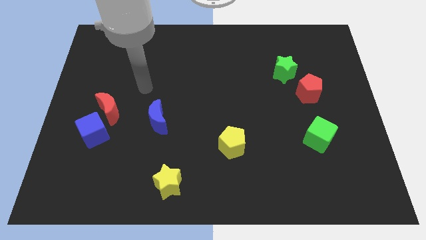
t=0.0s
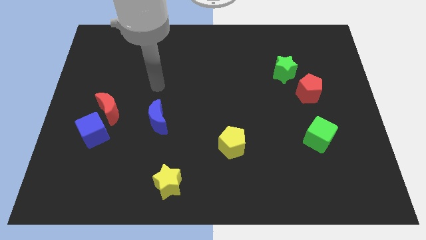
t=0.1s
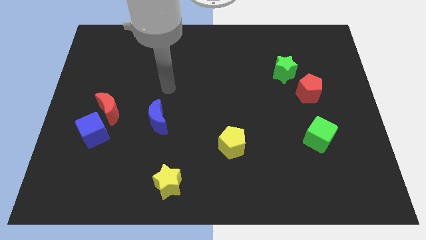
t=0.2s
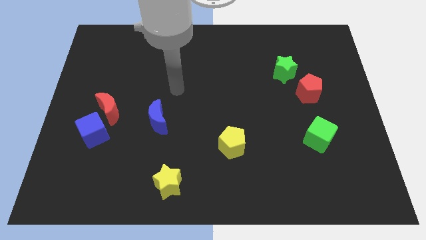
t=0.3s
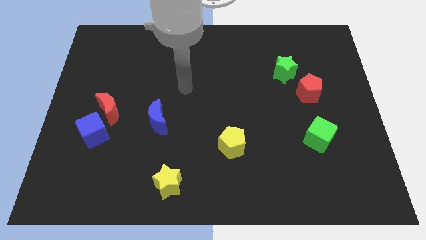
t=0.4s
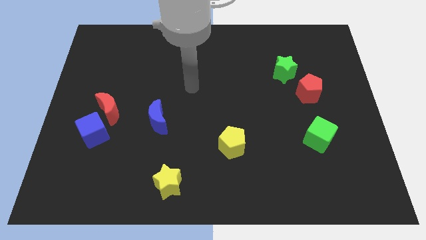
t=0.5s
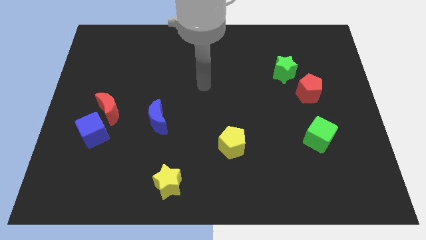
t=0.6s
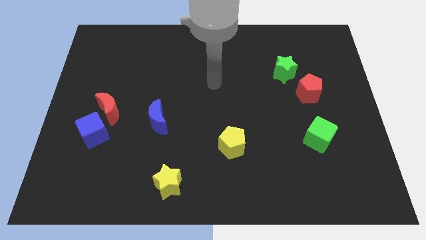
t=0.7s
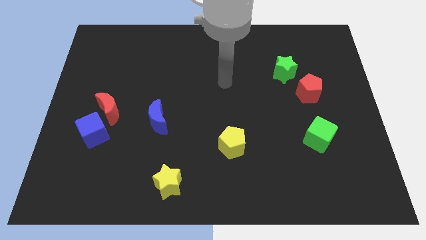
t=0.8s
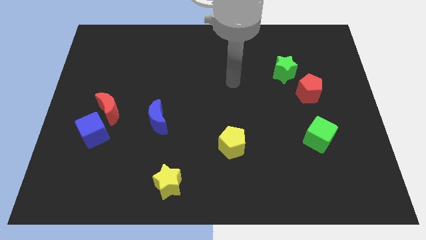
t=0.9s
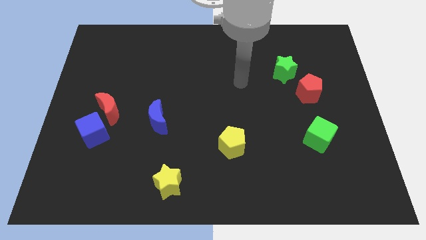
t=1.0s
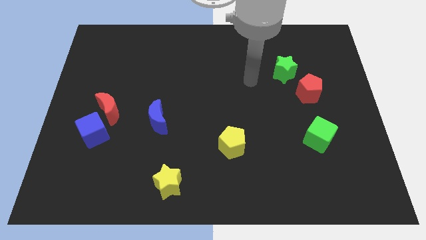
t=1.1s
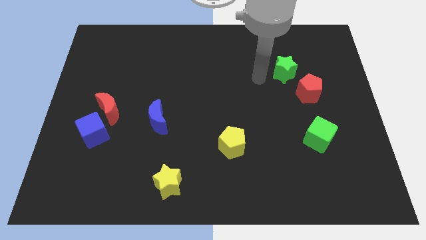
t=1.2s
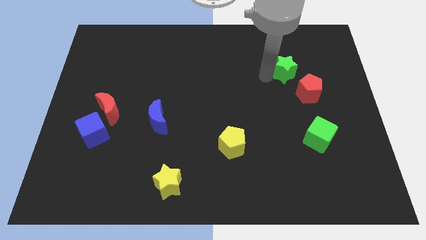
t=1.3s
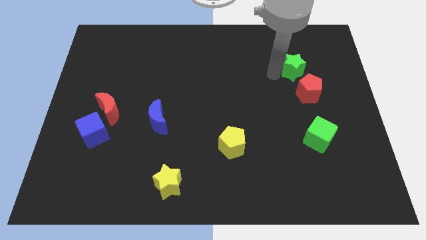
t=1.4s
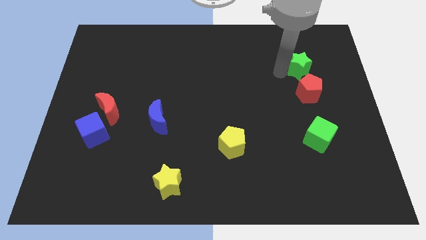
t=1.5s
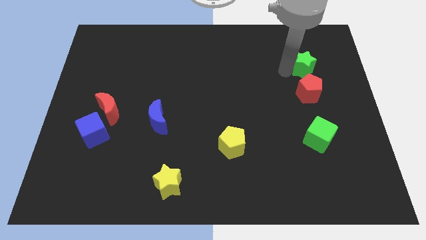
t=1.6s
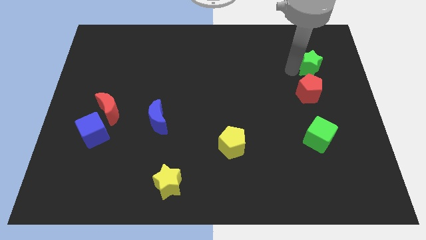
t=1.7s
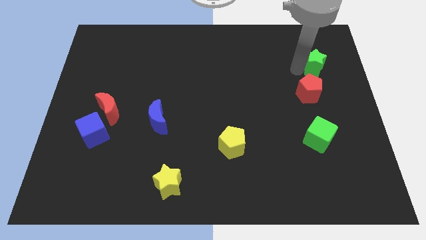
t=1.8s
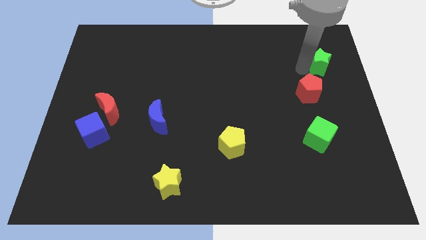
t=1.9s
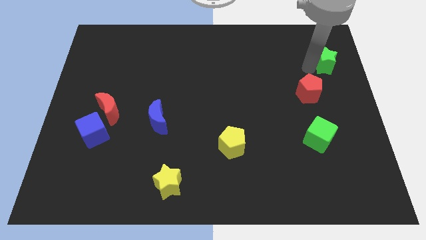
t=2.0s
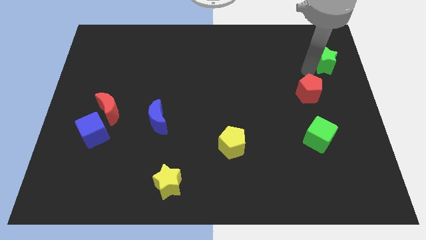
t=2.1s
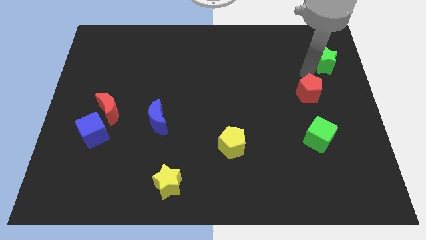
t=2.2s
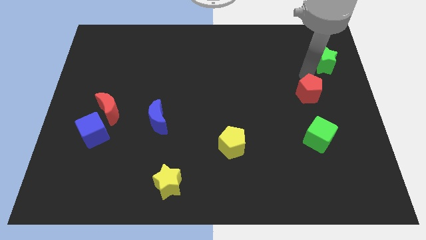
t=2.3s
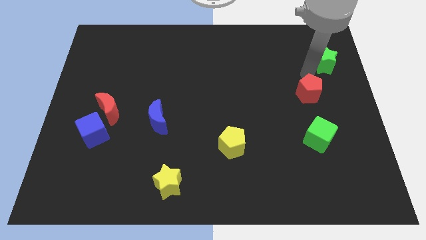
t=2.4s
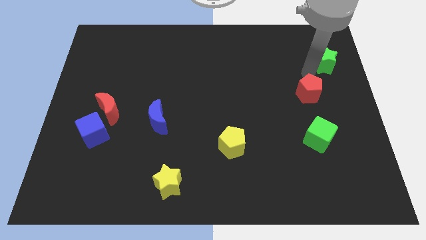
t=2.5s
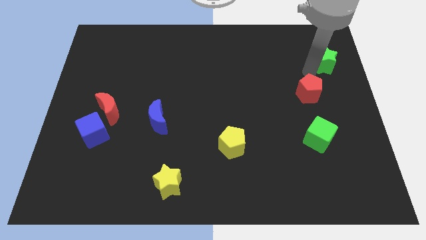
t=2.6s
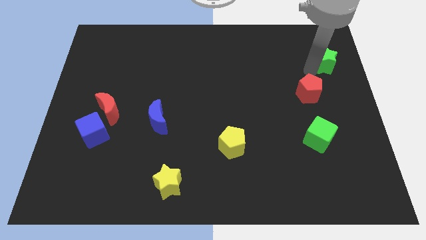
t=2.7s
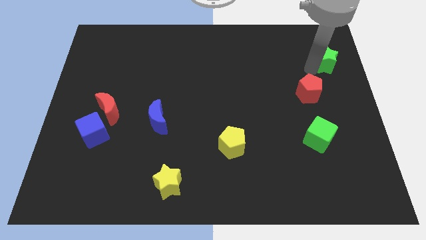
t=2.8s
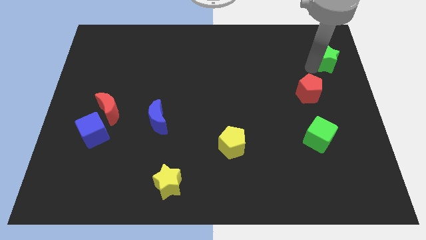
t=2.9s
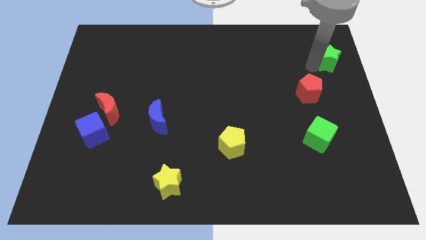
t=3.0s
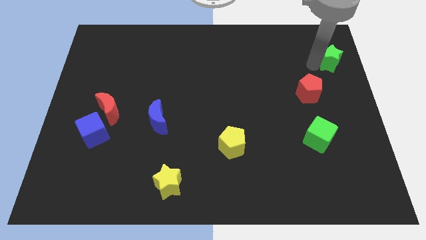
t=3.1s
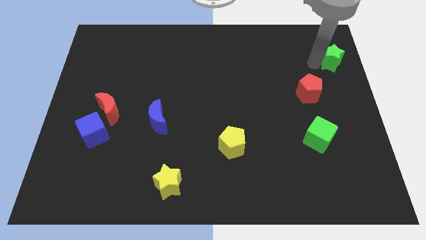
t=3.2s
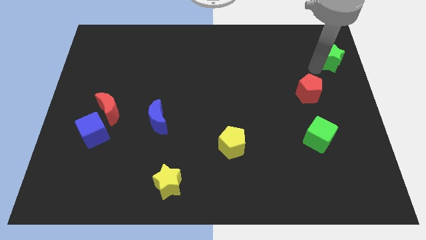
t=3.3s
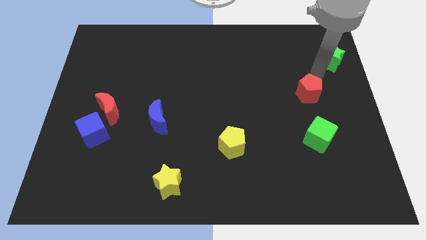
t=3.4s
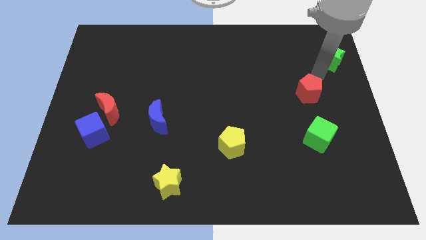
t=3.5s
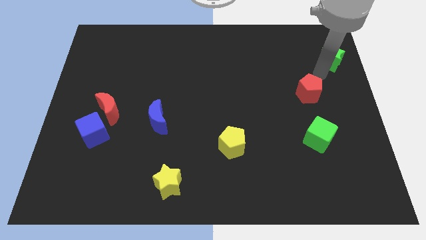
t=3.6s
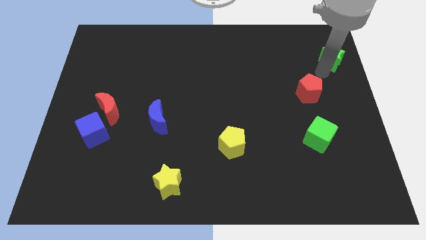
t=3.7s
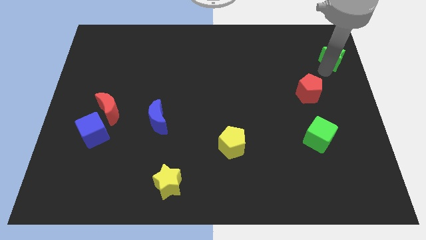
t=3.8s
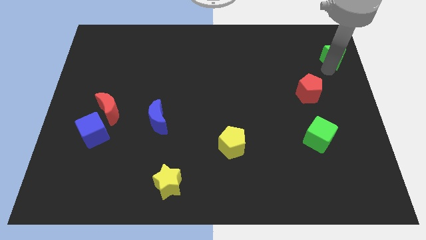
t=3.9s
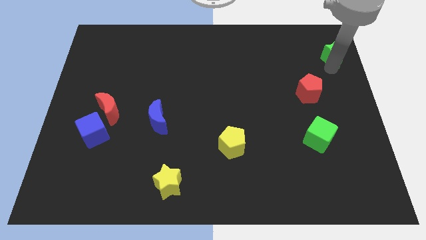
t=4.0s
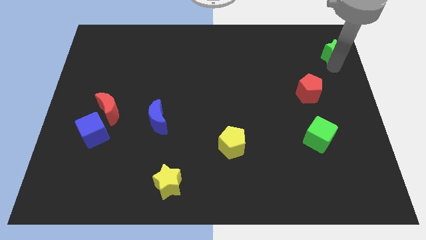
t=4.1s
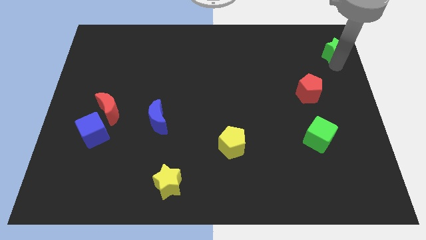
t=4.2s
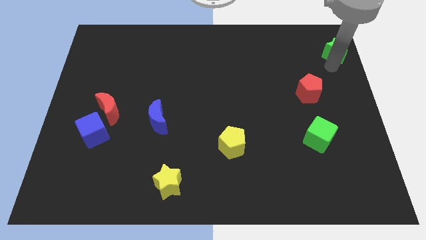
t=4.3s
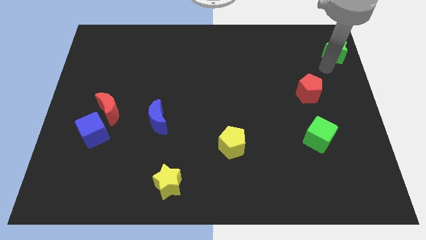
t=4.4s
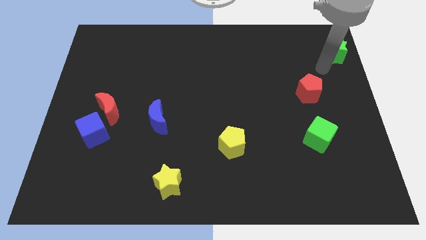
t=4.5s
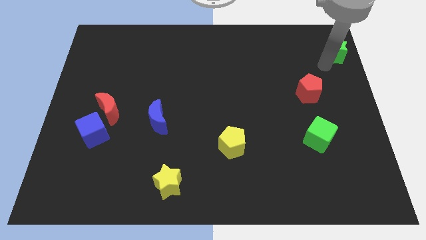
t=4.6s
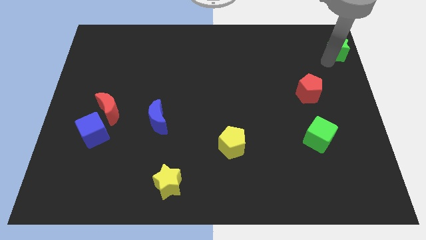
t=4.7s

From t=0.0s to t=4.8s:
move the green star to the top right corner

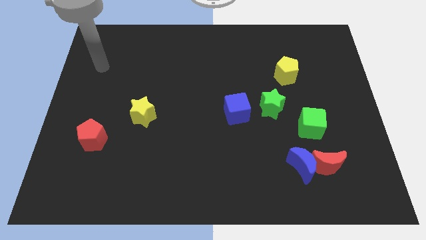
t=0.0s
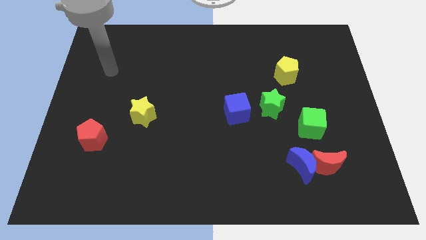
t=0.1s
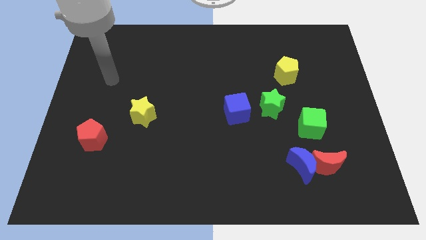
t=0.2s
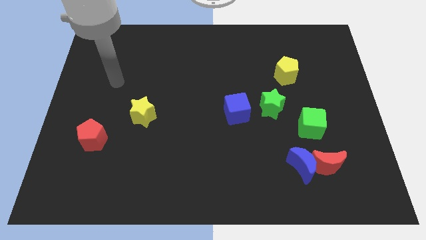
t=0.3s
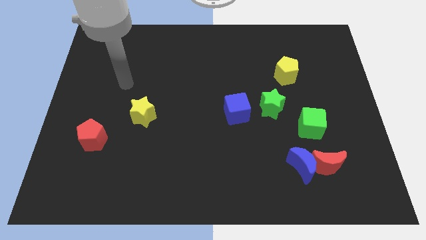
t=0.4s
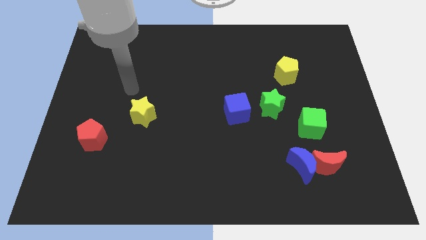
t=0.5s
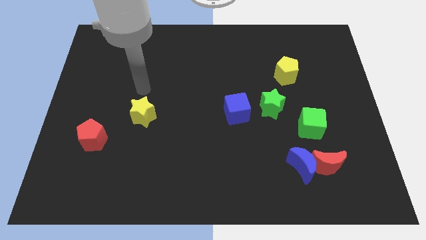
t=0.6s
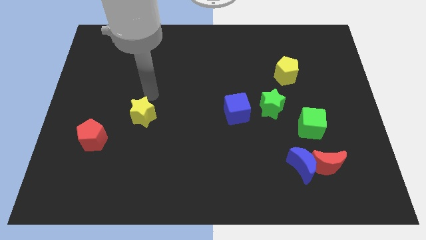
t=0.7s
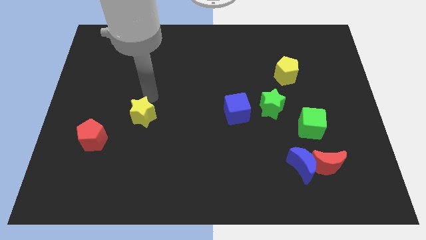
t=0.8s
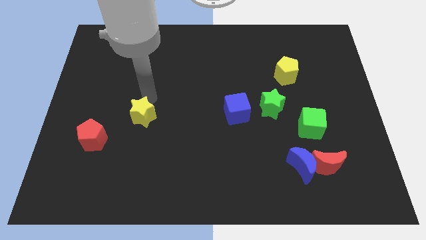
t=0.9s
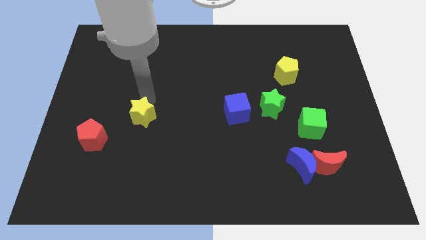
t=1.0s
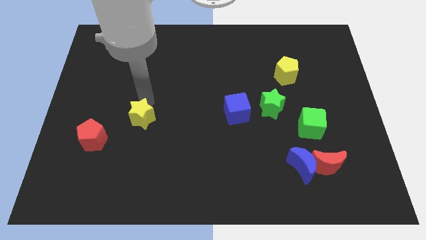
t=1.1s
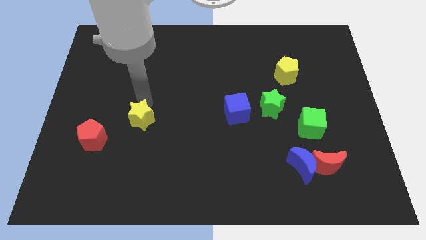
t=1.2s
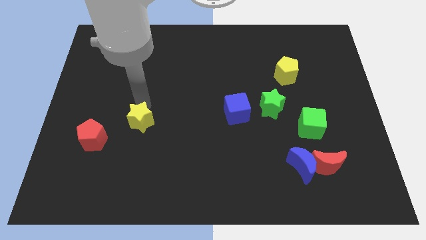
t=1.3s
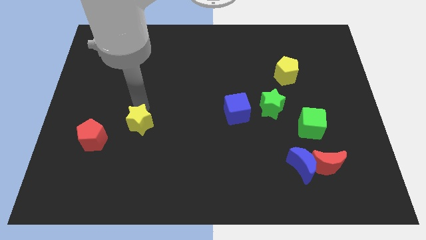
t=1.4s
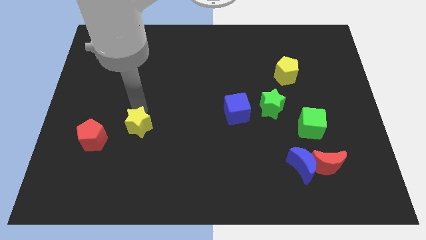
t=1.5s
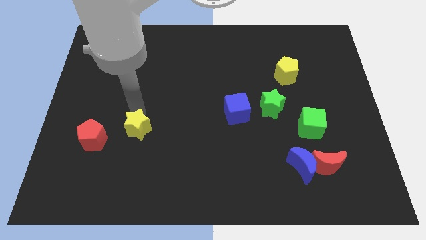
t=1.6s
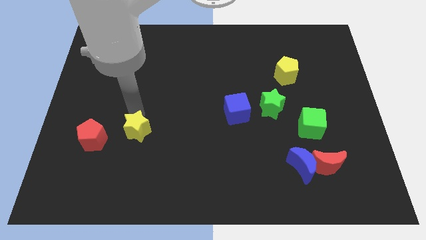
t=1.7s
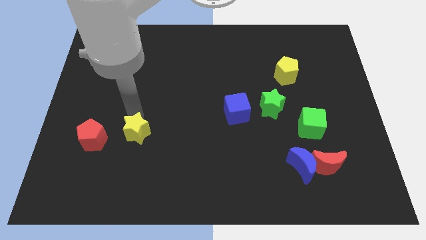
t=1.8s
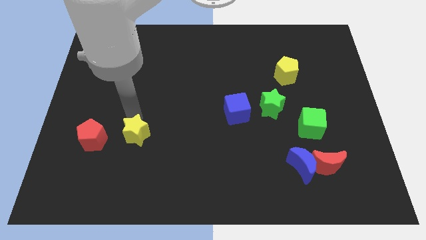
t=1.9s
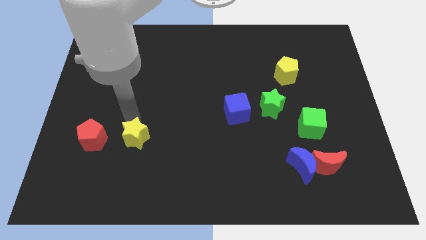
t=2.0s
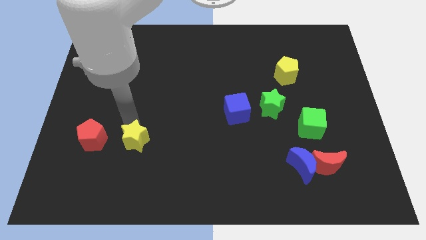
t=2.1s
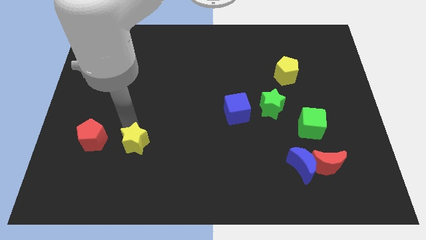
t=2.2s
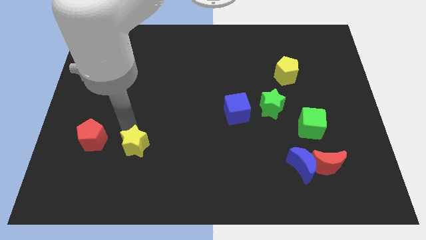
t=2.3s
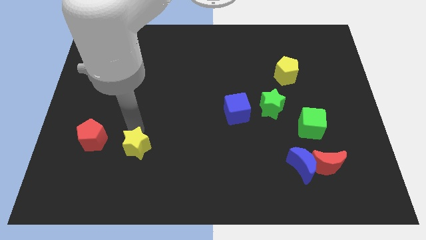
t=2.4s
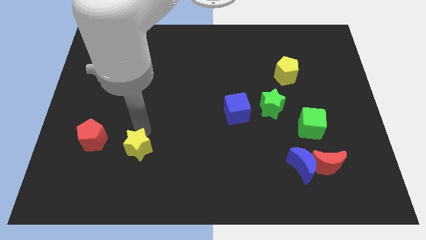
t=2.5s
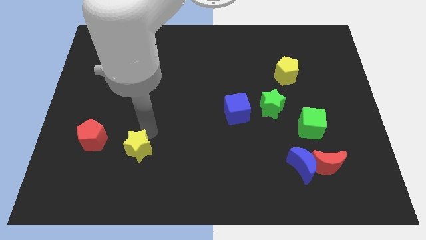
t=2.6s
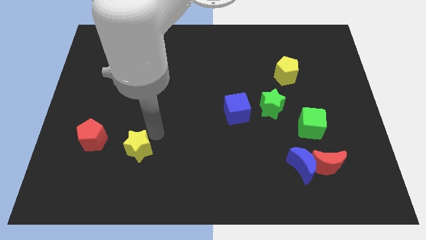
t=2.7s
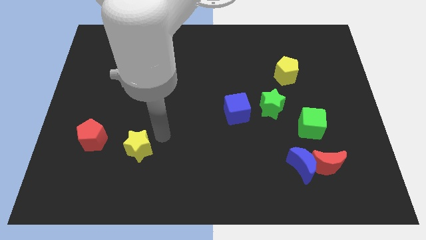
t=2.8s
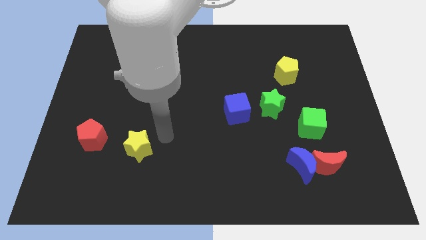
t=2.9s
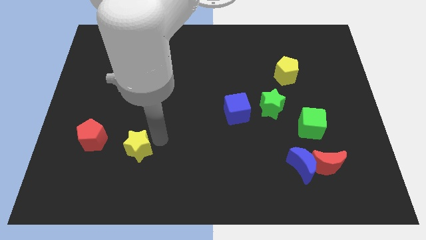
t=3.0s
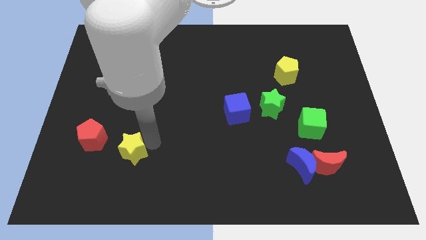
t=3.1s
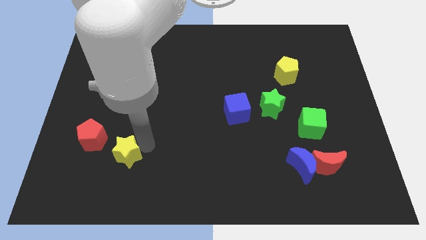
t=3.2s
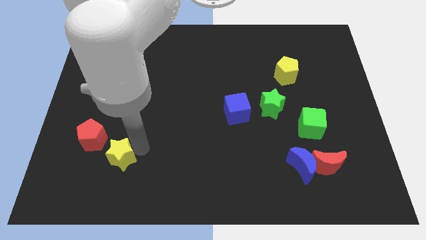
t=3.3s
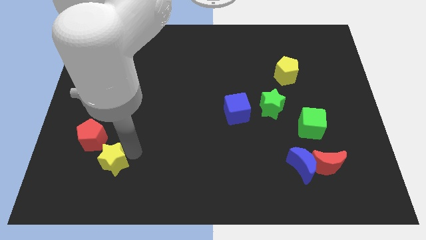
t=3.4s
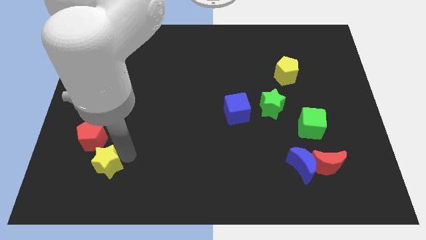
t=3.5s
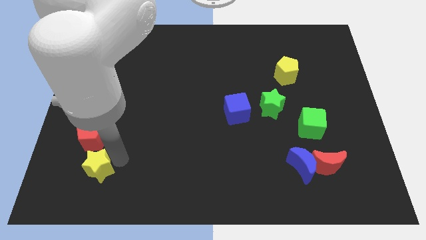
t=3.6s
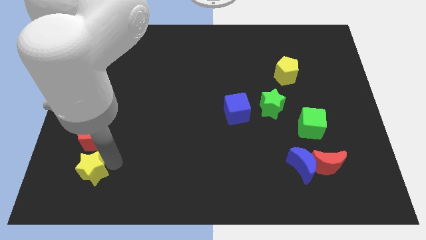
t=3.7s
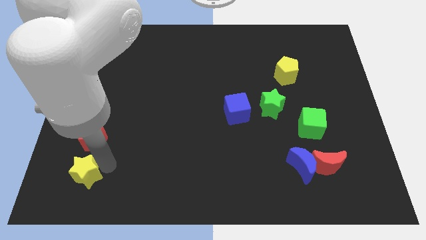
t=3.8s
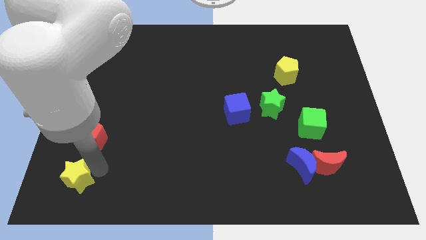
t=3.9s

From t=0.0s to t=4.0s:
push the yellow star to the bottom left of the board
